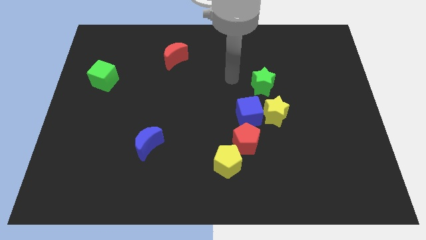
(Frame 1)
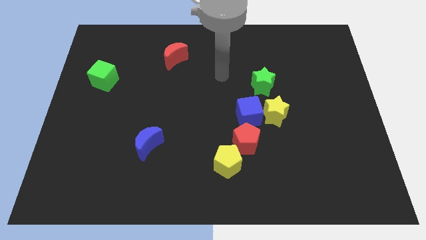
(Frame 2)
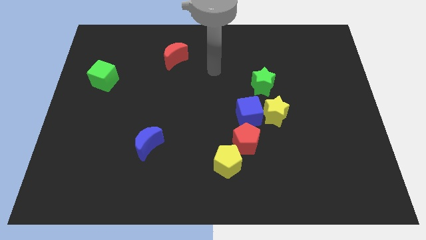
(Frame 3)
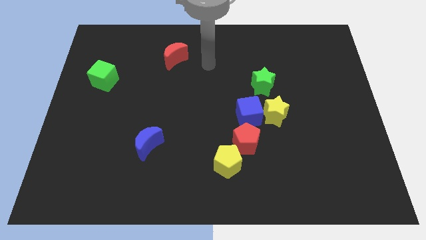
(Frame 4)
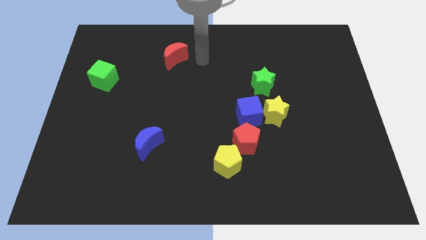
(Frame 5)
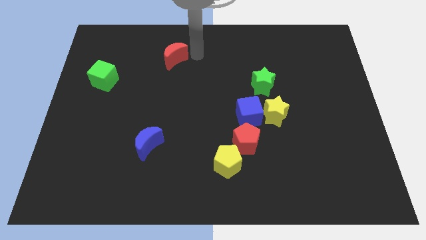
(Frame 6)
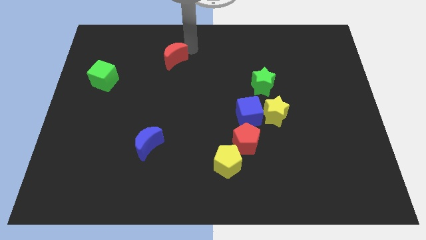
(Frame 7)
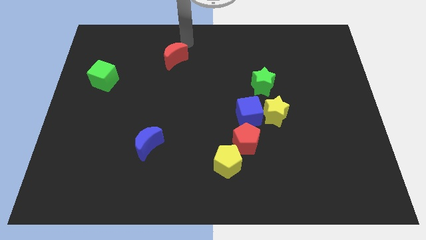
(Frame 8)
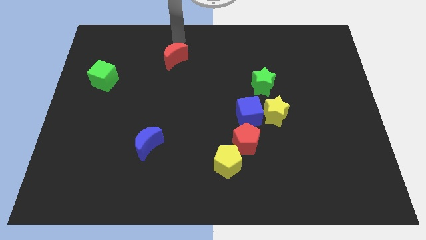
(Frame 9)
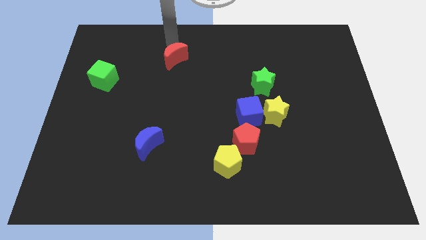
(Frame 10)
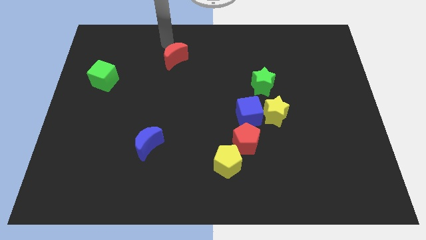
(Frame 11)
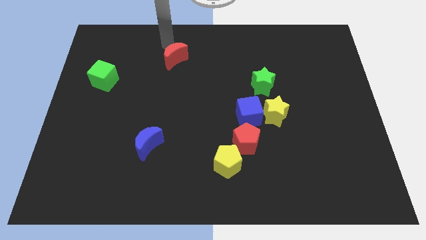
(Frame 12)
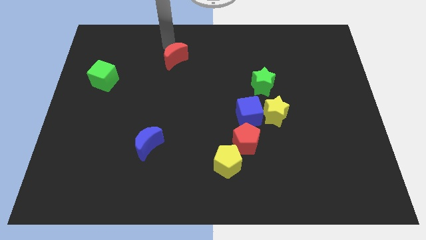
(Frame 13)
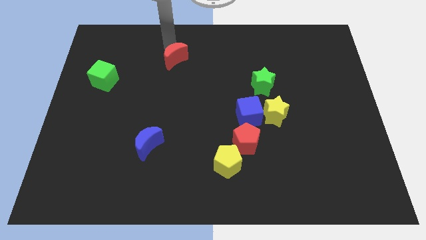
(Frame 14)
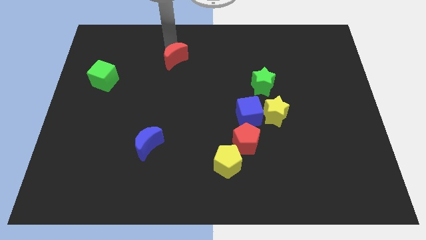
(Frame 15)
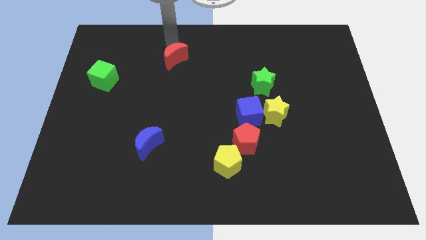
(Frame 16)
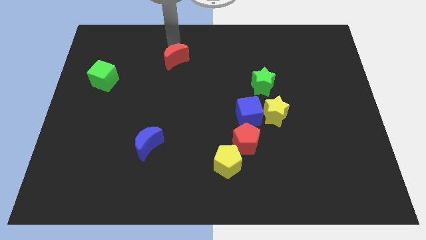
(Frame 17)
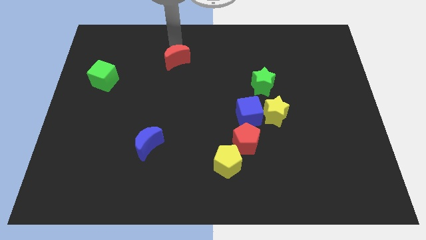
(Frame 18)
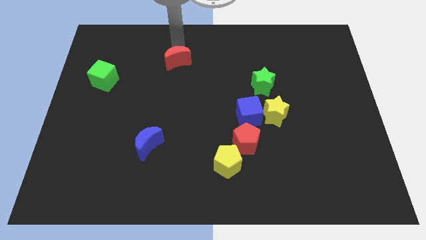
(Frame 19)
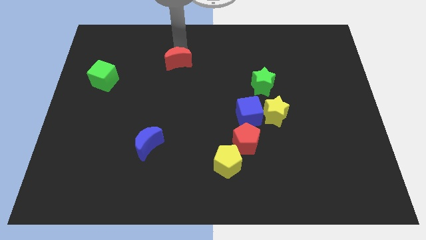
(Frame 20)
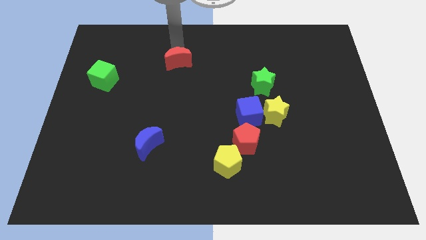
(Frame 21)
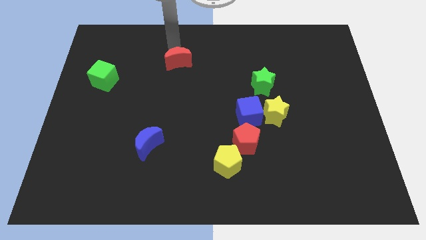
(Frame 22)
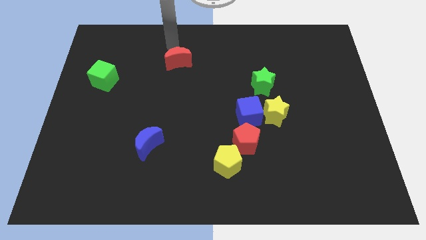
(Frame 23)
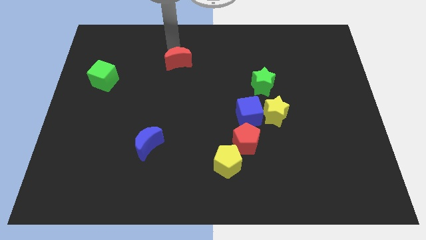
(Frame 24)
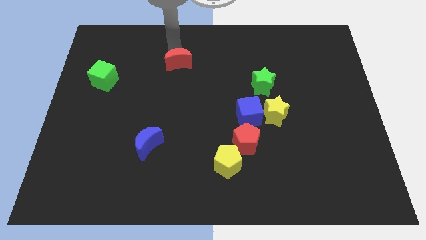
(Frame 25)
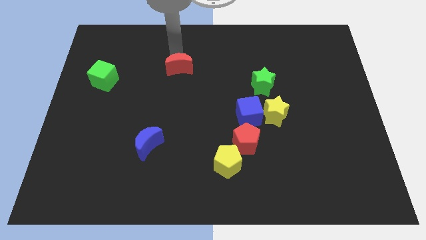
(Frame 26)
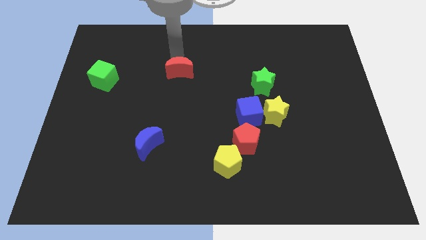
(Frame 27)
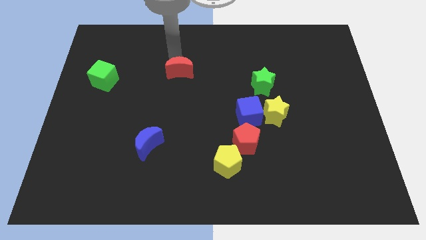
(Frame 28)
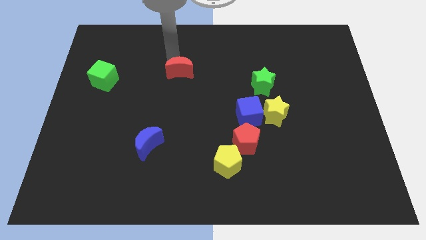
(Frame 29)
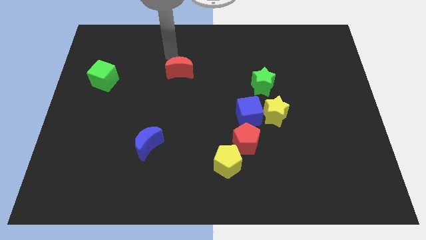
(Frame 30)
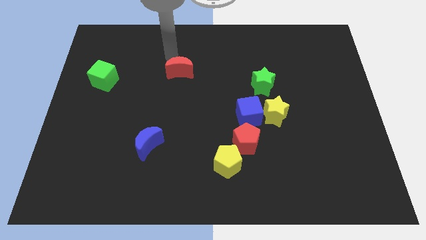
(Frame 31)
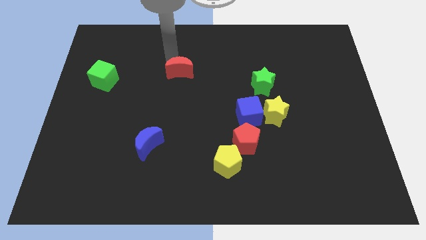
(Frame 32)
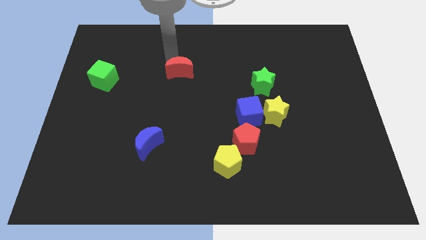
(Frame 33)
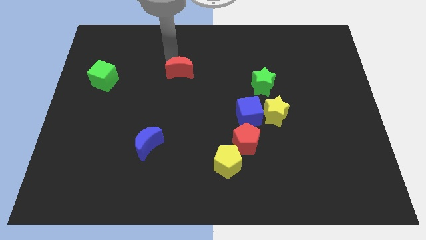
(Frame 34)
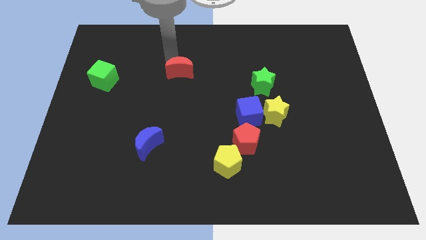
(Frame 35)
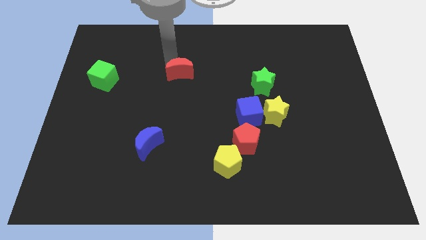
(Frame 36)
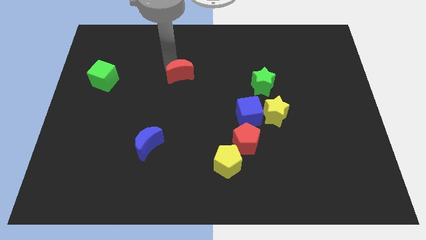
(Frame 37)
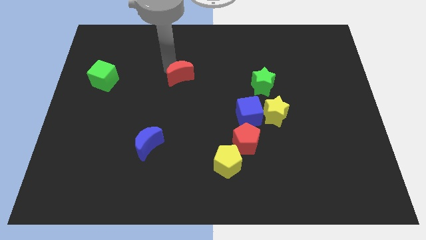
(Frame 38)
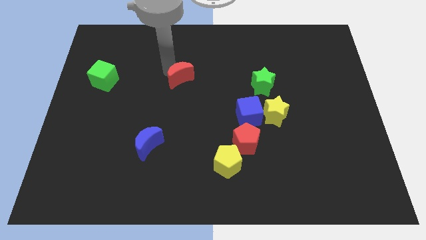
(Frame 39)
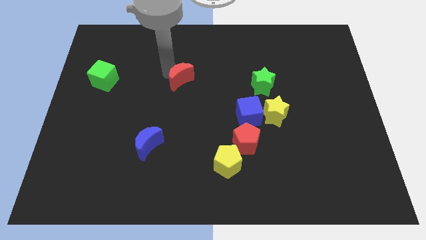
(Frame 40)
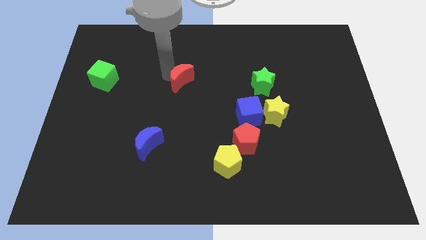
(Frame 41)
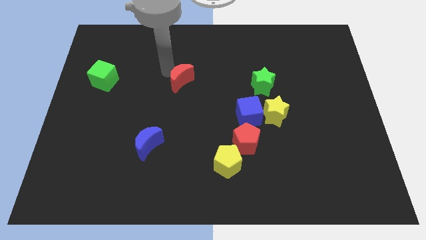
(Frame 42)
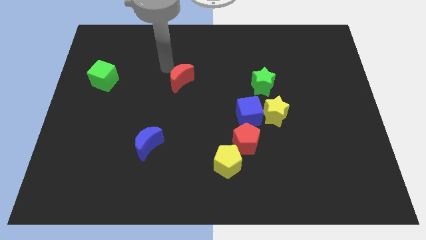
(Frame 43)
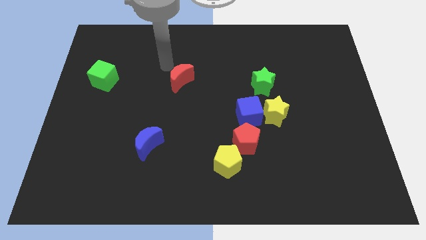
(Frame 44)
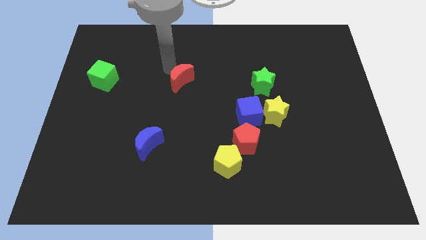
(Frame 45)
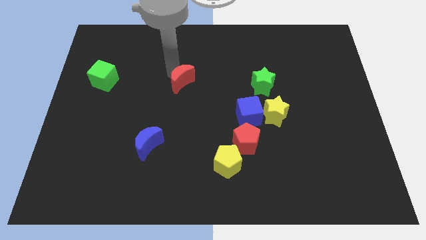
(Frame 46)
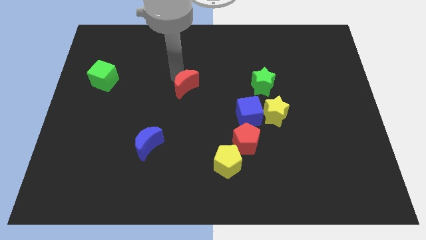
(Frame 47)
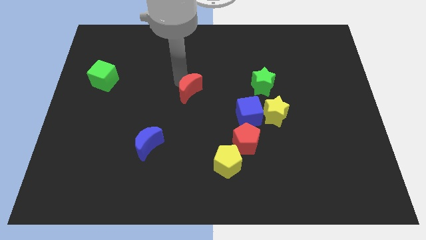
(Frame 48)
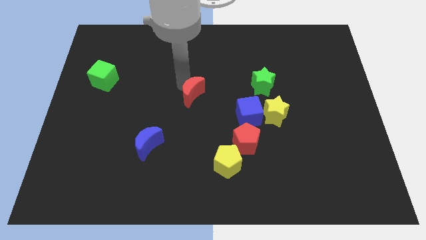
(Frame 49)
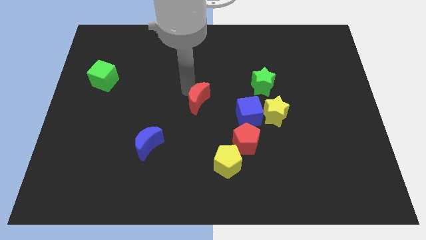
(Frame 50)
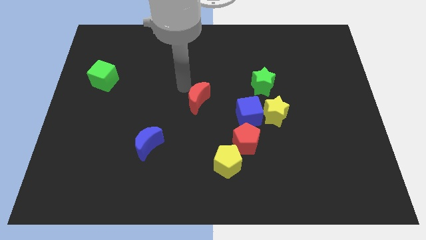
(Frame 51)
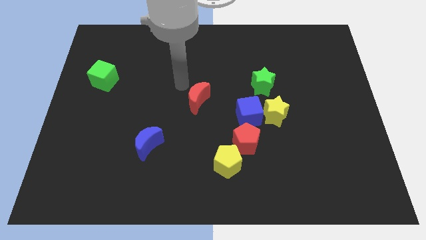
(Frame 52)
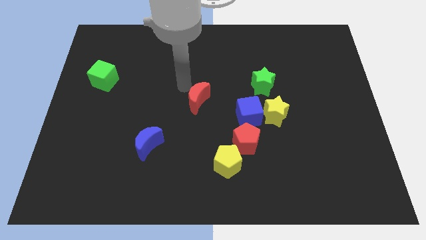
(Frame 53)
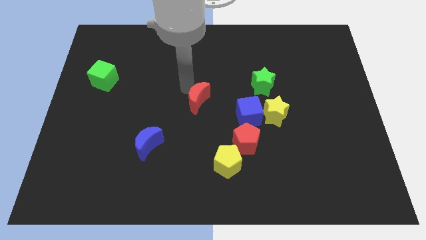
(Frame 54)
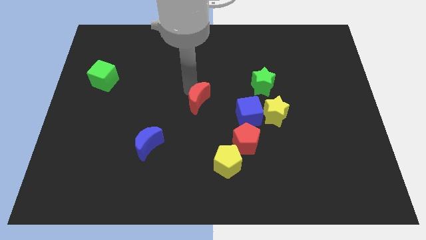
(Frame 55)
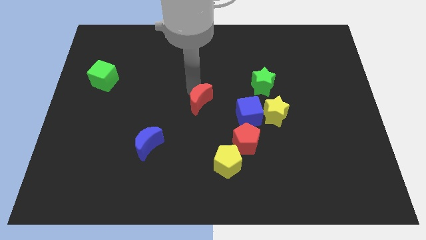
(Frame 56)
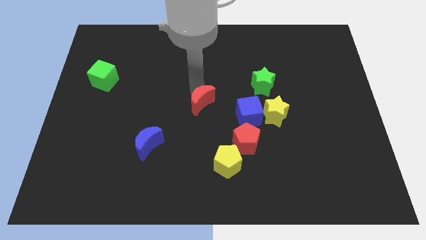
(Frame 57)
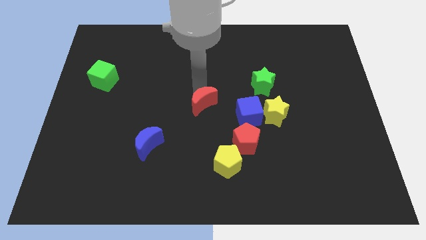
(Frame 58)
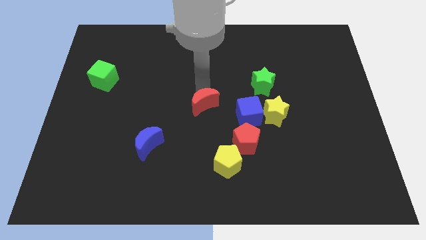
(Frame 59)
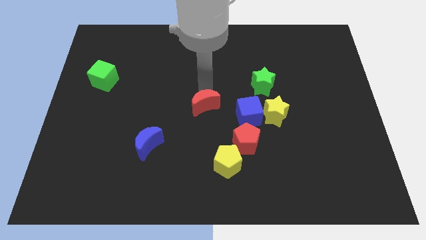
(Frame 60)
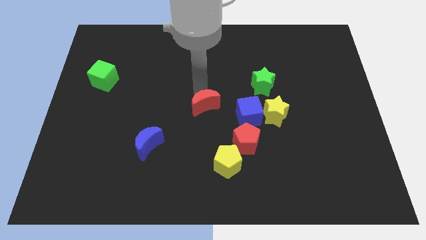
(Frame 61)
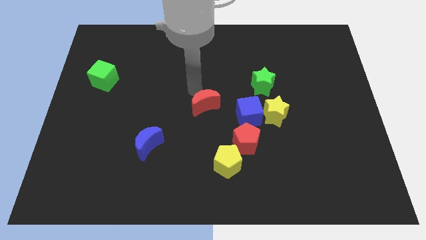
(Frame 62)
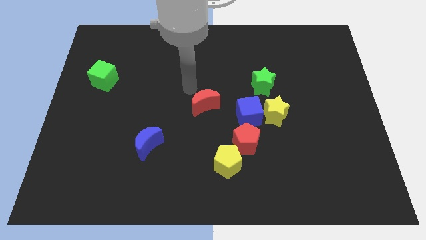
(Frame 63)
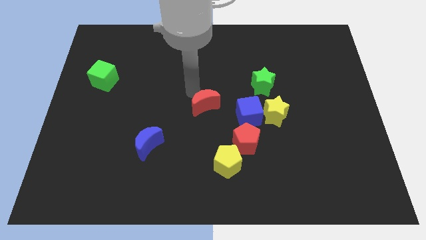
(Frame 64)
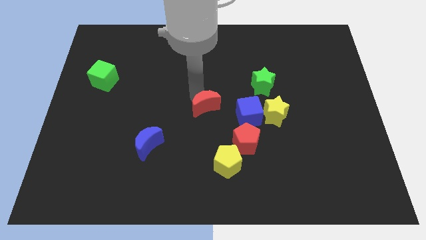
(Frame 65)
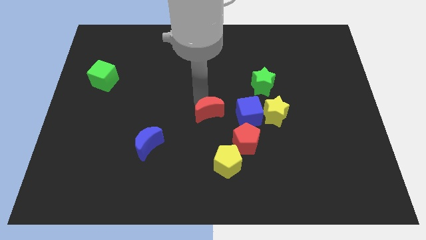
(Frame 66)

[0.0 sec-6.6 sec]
put the red moon to the top left side of the red pentagon

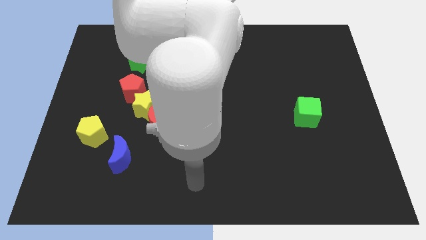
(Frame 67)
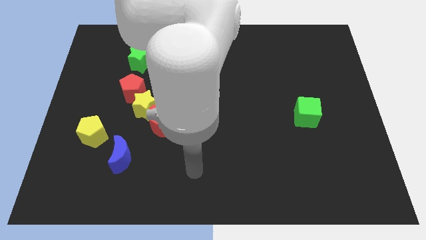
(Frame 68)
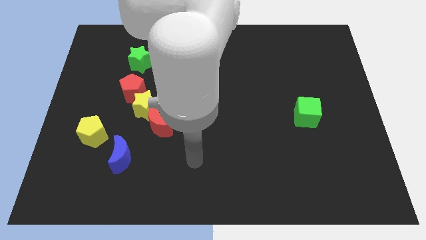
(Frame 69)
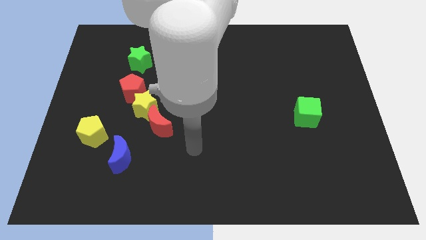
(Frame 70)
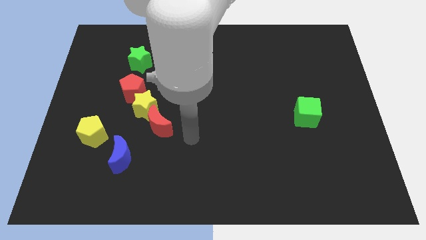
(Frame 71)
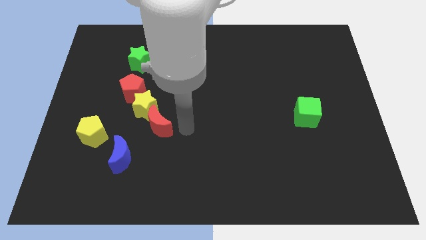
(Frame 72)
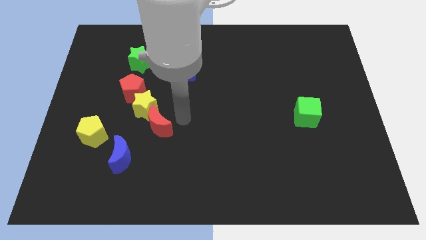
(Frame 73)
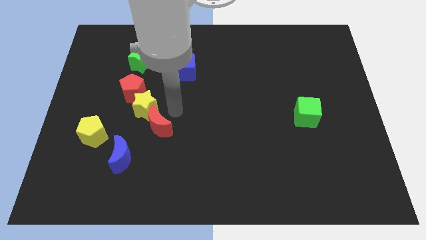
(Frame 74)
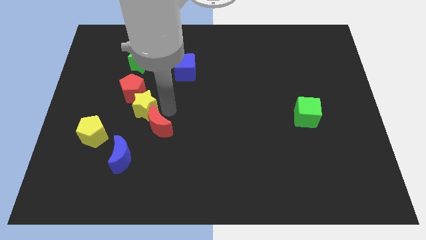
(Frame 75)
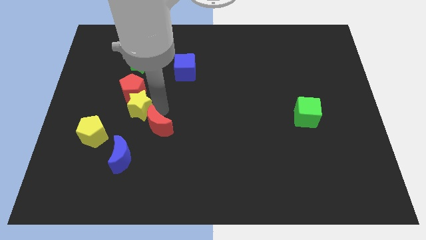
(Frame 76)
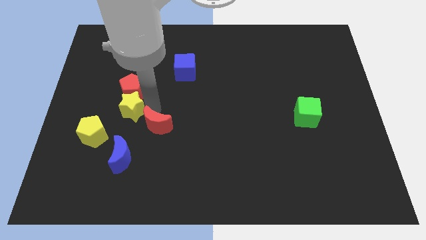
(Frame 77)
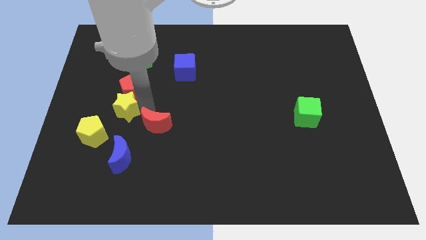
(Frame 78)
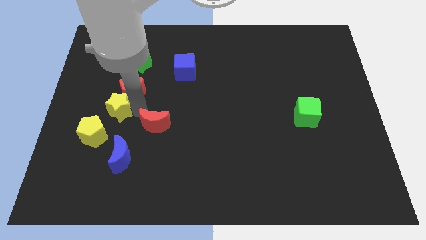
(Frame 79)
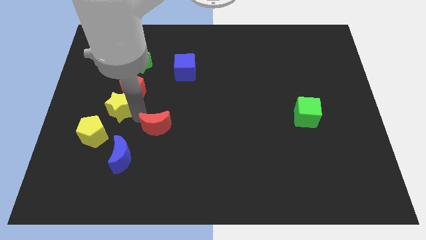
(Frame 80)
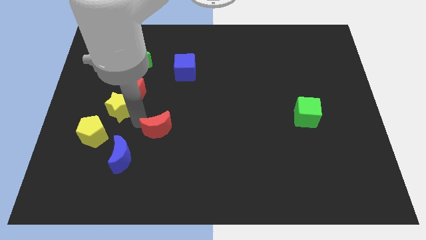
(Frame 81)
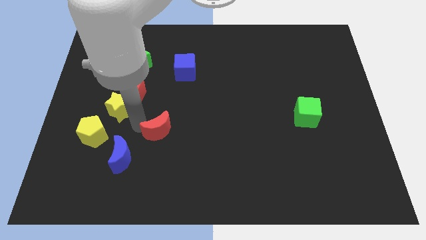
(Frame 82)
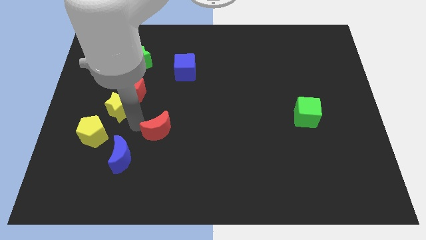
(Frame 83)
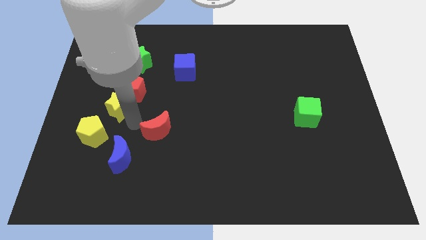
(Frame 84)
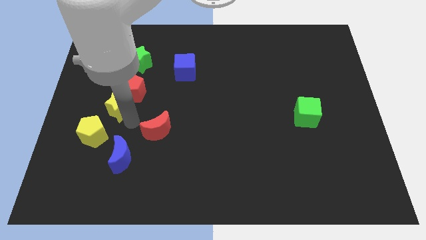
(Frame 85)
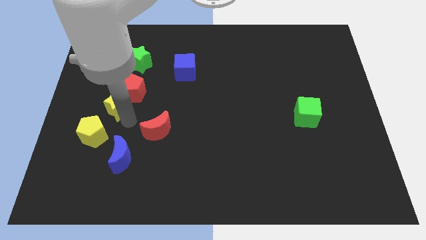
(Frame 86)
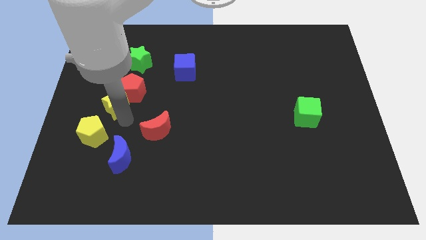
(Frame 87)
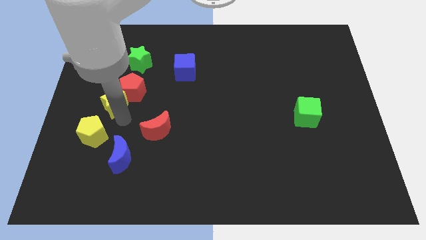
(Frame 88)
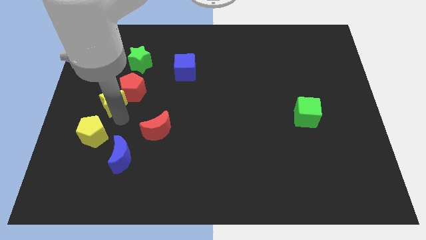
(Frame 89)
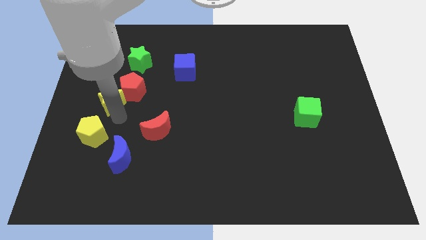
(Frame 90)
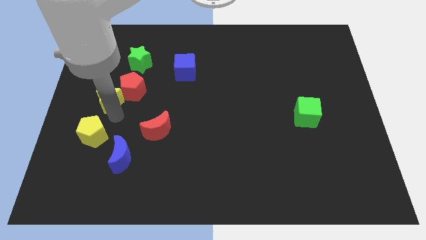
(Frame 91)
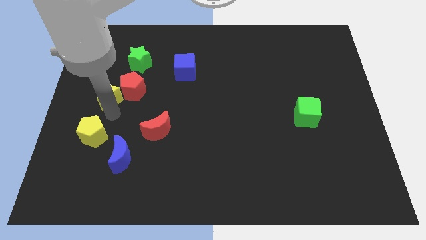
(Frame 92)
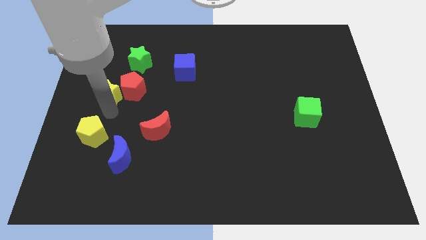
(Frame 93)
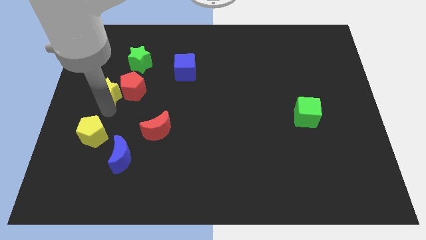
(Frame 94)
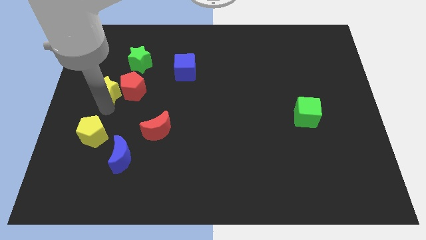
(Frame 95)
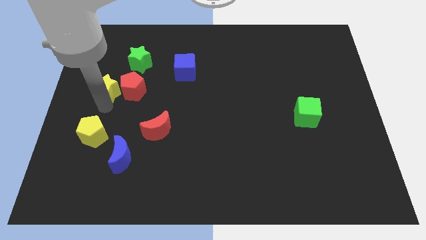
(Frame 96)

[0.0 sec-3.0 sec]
move the yellow star diagonally down and to the left of the green star
